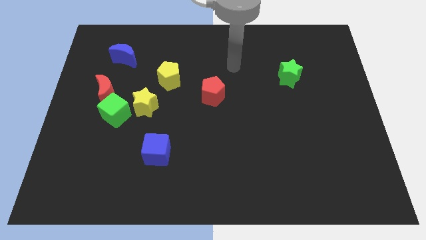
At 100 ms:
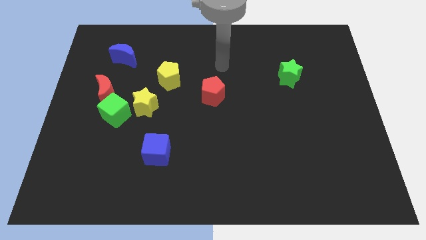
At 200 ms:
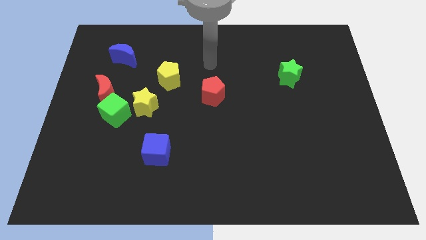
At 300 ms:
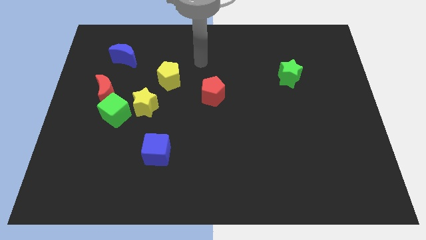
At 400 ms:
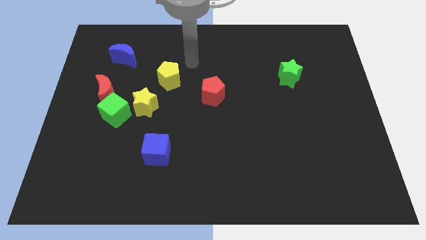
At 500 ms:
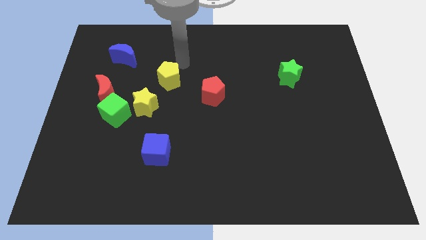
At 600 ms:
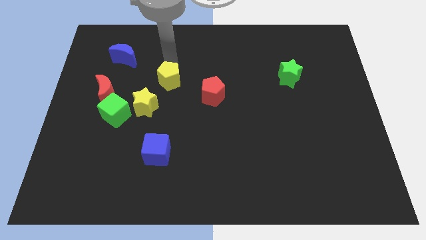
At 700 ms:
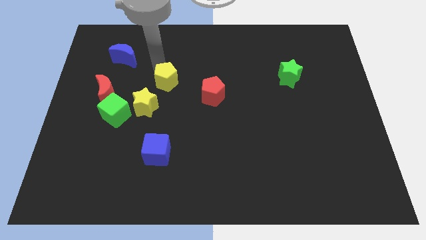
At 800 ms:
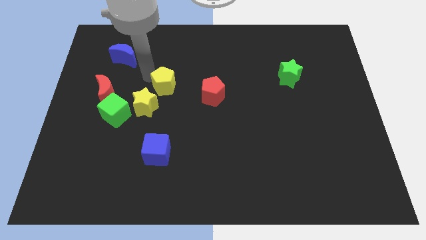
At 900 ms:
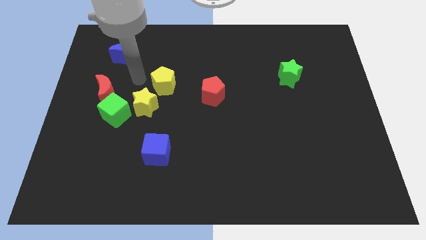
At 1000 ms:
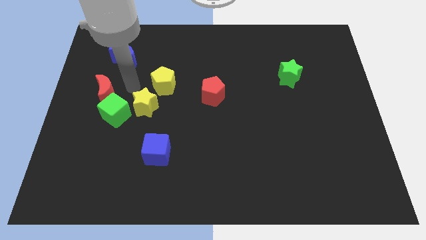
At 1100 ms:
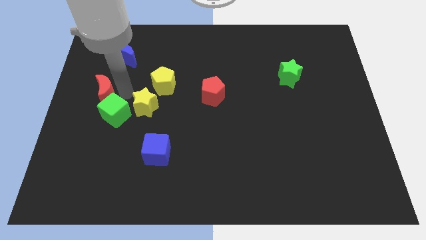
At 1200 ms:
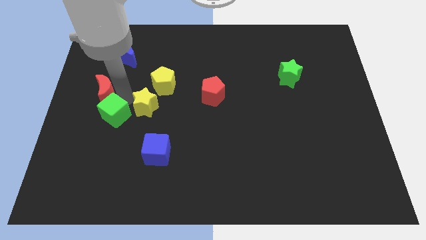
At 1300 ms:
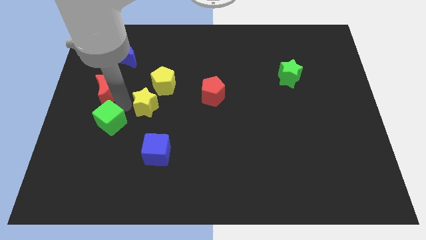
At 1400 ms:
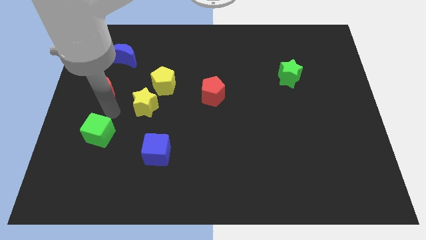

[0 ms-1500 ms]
move the red moon away from the green cube

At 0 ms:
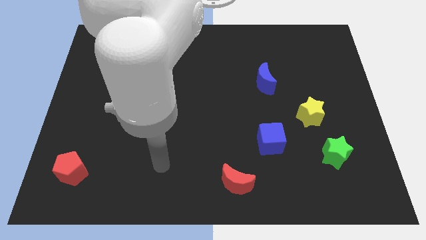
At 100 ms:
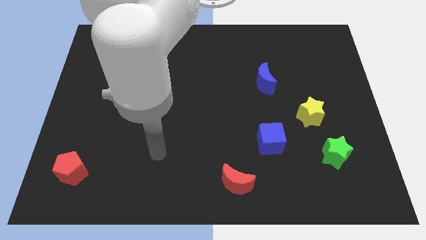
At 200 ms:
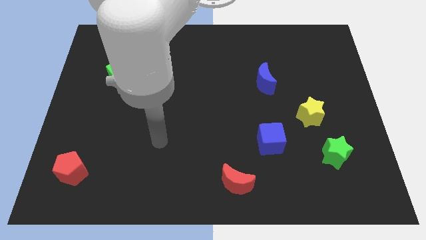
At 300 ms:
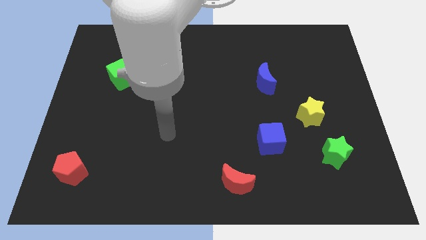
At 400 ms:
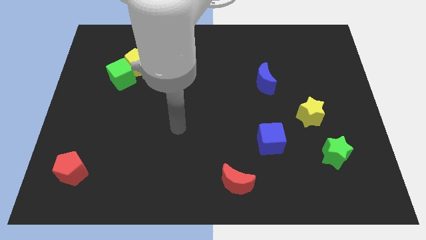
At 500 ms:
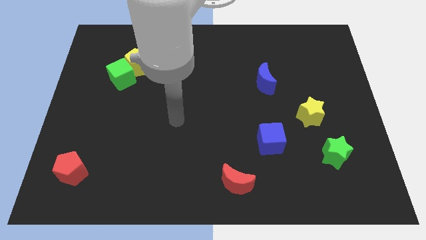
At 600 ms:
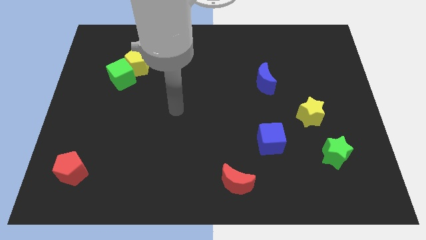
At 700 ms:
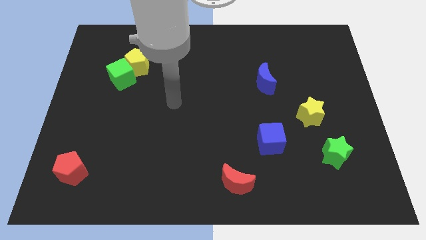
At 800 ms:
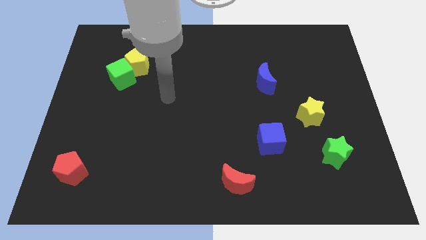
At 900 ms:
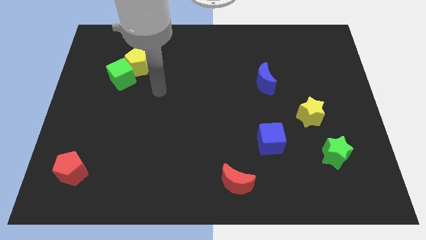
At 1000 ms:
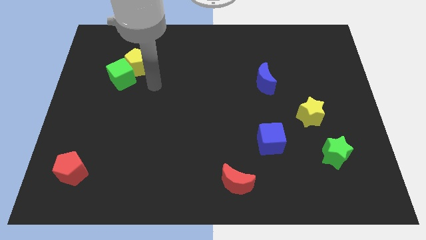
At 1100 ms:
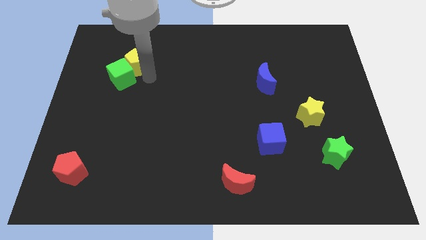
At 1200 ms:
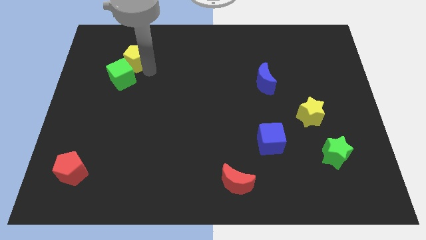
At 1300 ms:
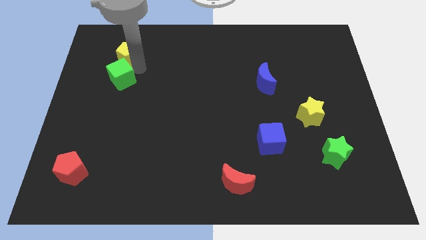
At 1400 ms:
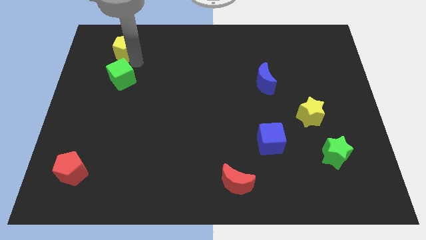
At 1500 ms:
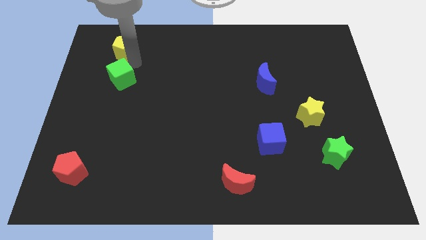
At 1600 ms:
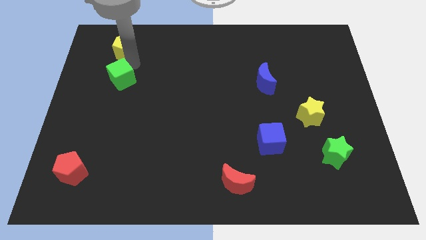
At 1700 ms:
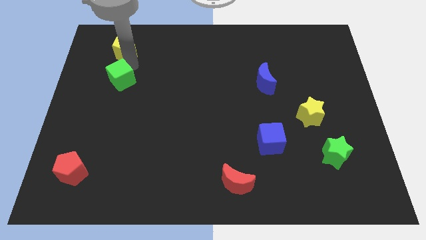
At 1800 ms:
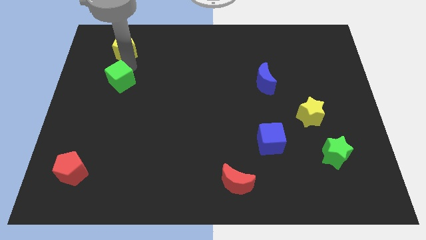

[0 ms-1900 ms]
move the green cube away from the yellow pentagon

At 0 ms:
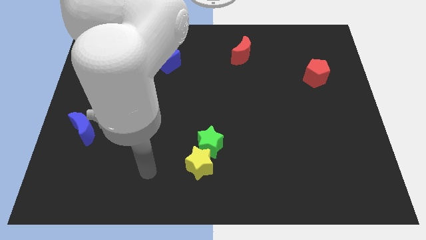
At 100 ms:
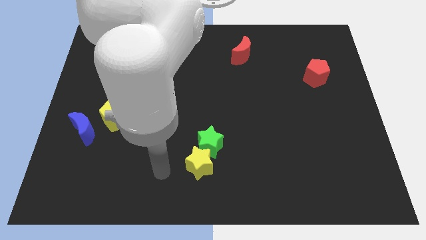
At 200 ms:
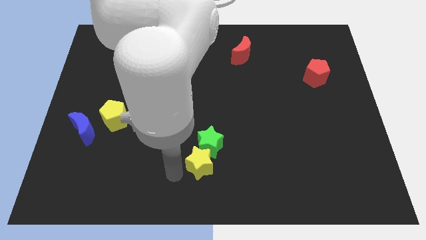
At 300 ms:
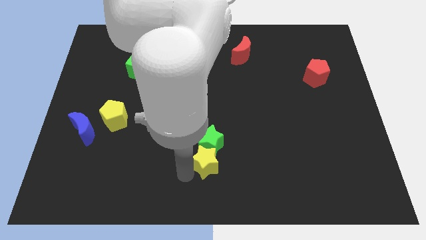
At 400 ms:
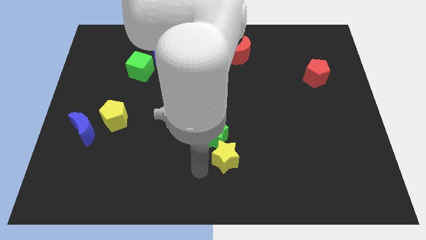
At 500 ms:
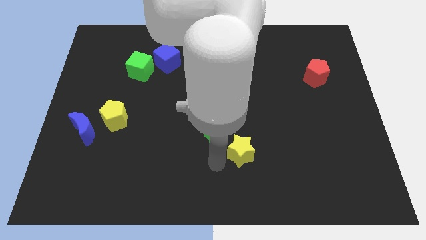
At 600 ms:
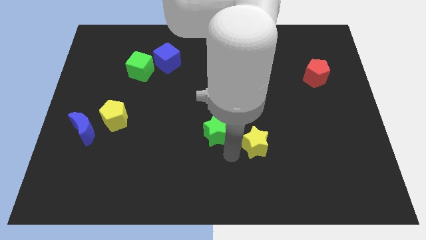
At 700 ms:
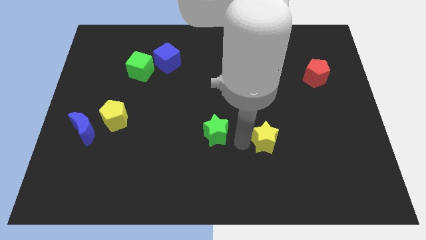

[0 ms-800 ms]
move the green star away from the yellow star

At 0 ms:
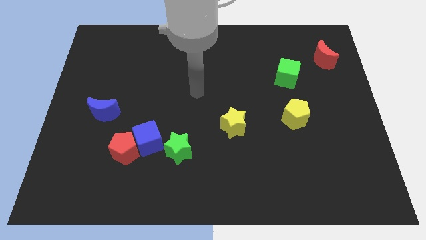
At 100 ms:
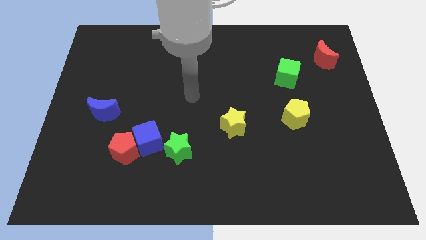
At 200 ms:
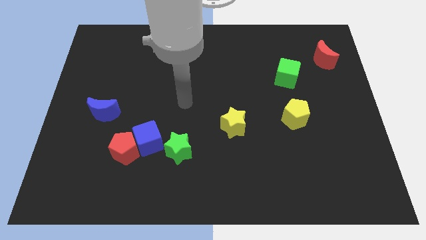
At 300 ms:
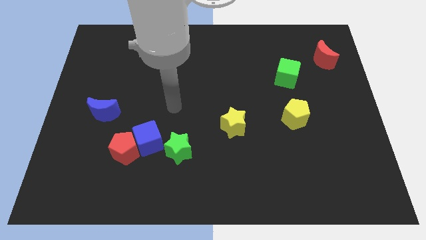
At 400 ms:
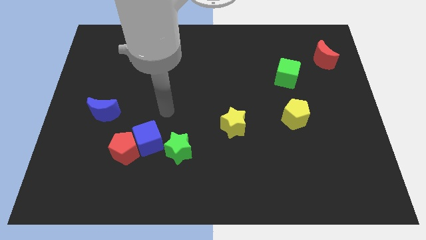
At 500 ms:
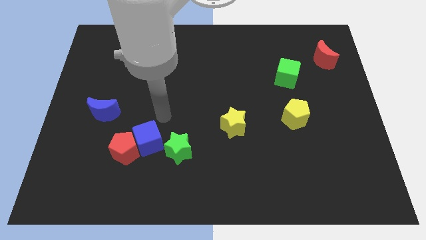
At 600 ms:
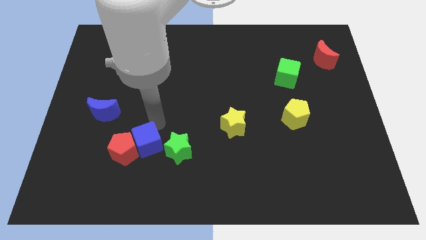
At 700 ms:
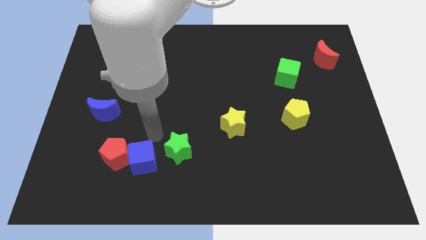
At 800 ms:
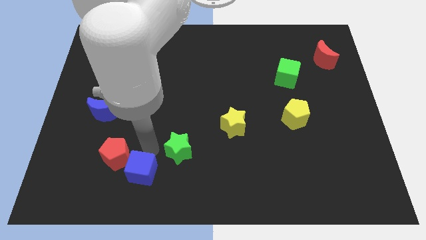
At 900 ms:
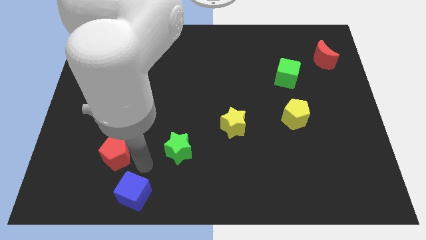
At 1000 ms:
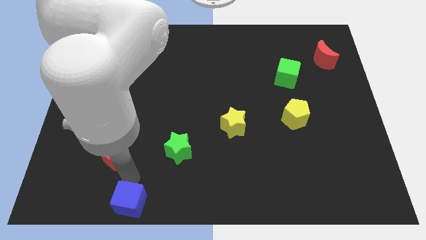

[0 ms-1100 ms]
separate the red pentagon from the blue cube

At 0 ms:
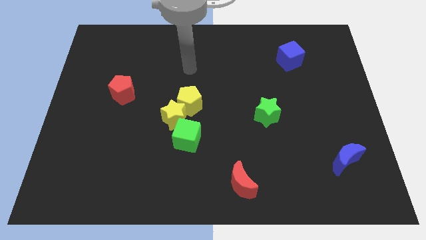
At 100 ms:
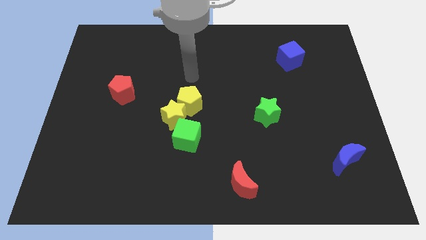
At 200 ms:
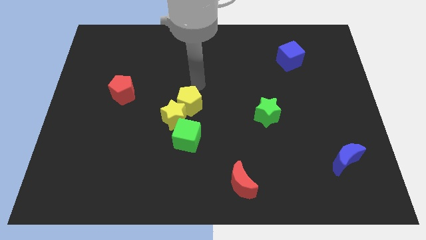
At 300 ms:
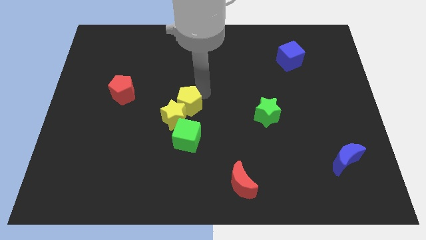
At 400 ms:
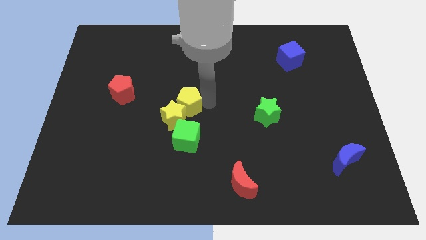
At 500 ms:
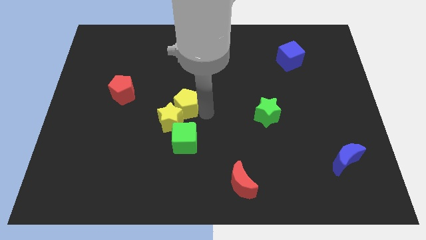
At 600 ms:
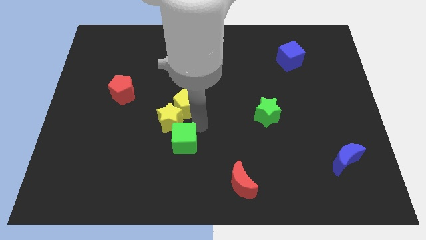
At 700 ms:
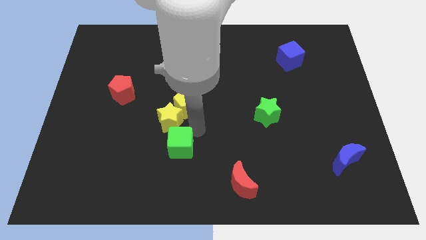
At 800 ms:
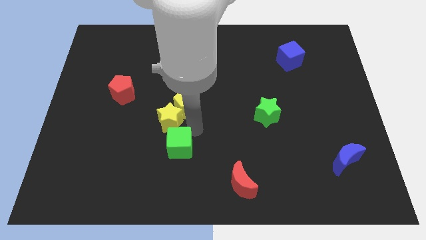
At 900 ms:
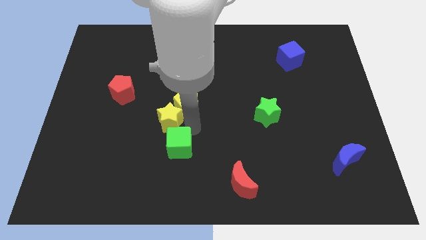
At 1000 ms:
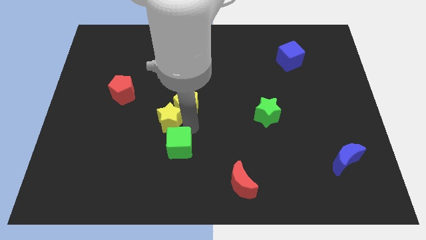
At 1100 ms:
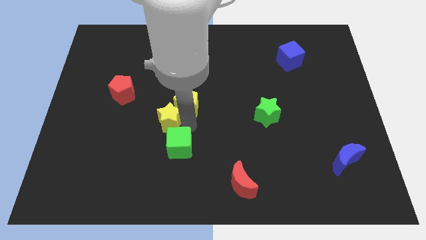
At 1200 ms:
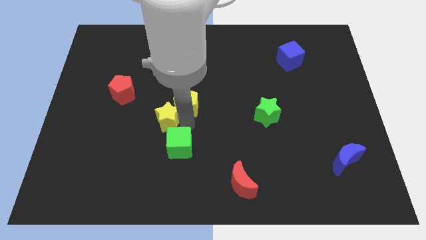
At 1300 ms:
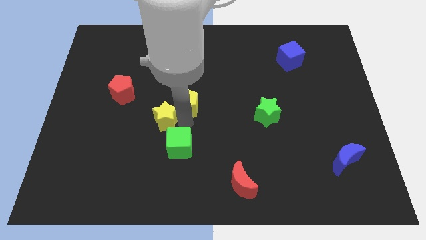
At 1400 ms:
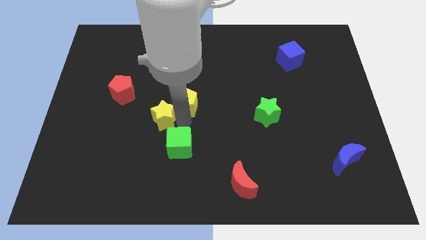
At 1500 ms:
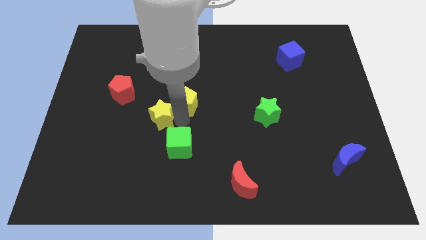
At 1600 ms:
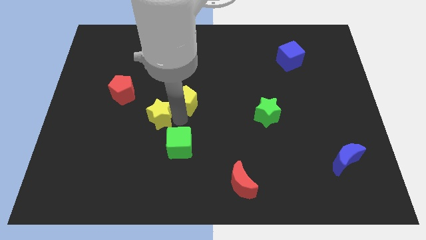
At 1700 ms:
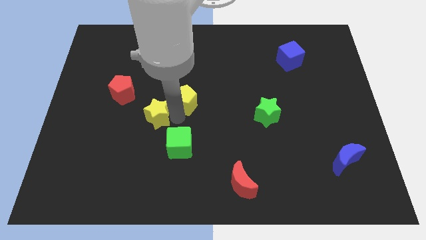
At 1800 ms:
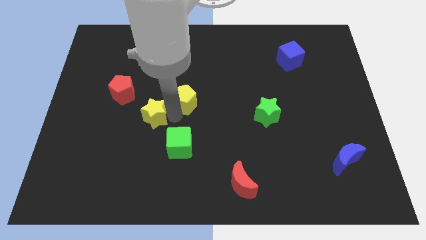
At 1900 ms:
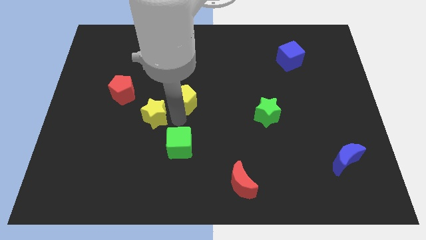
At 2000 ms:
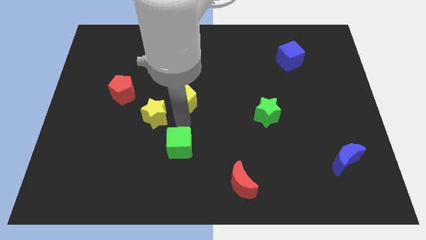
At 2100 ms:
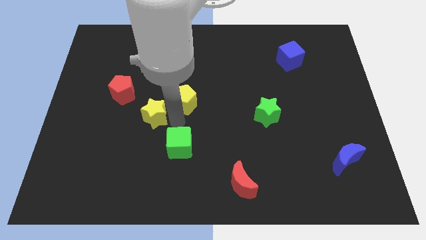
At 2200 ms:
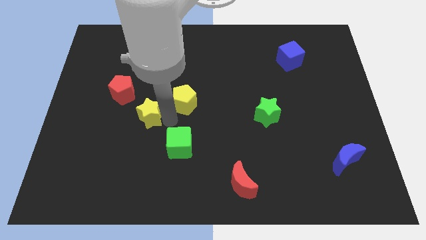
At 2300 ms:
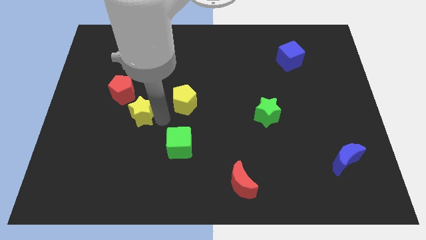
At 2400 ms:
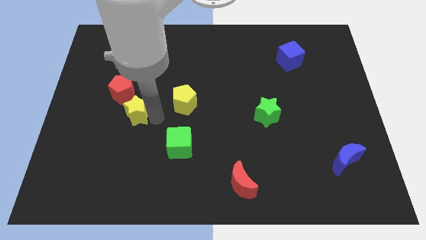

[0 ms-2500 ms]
pull the yellow star apart from the yellow pentagon and green cube

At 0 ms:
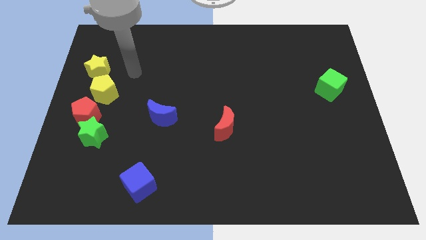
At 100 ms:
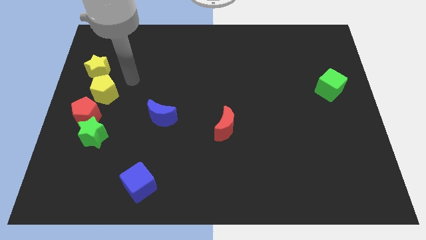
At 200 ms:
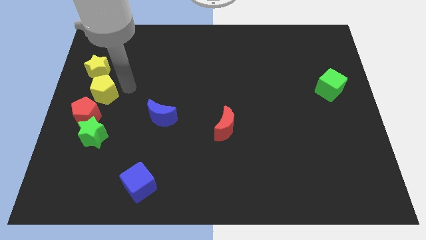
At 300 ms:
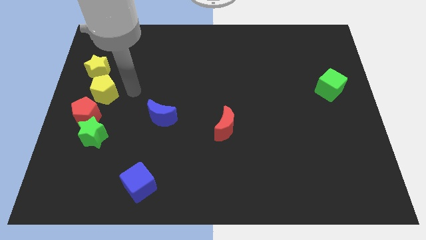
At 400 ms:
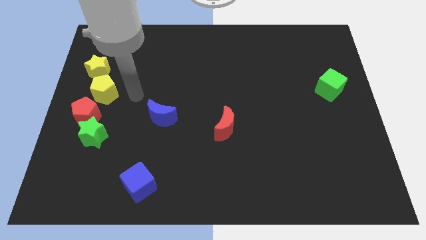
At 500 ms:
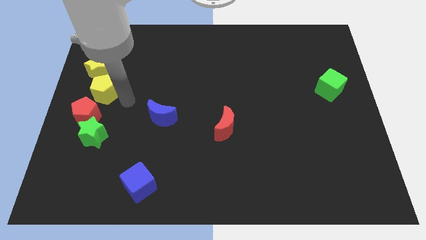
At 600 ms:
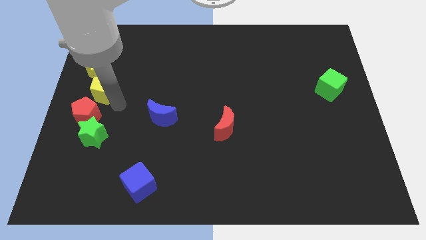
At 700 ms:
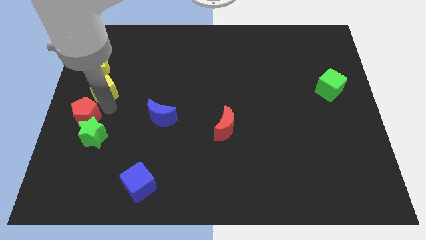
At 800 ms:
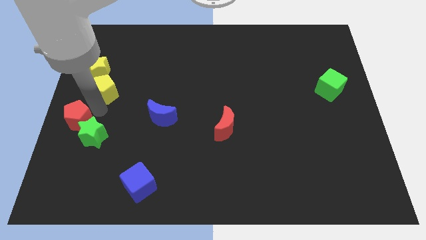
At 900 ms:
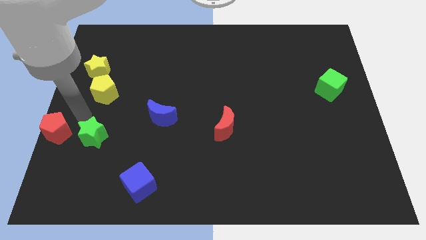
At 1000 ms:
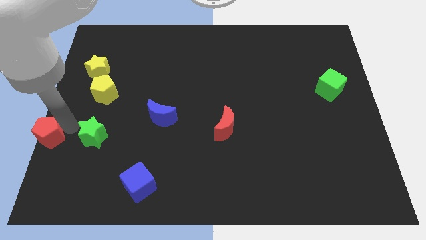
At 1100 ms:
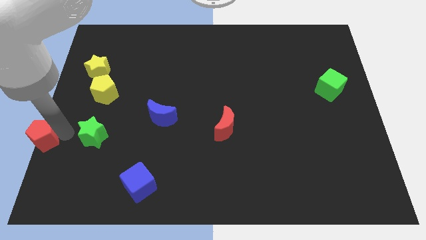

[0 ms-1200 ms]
separate the green star from the red pentagon

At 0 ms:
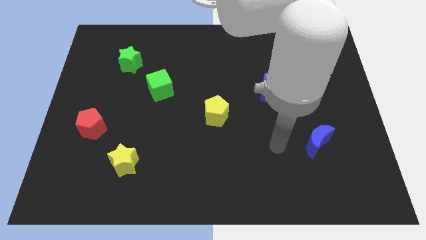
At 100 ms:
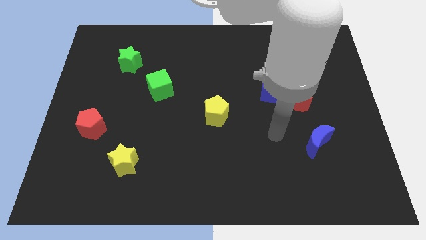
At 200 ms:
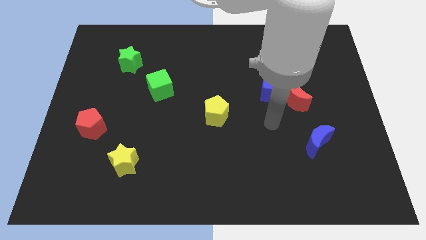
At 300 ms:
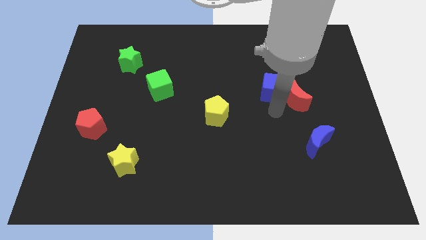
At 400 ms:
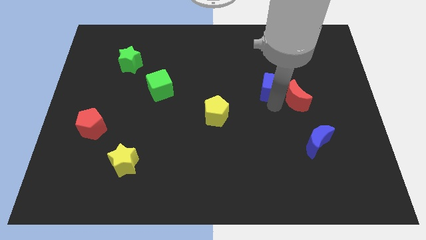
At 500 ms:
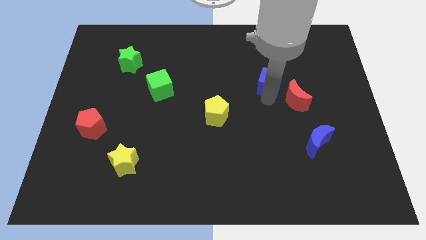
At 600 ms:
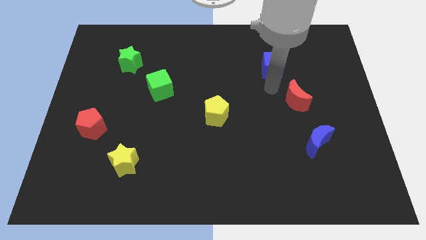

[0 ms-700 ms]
move the red moon away from the blue cube
